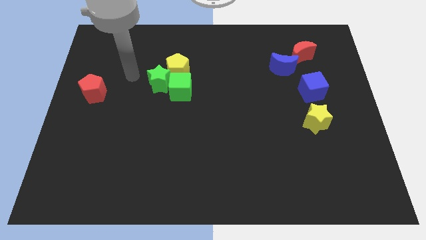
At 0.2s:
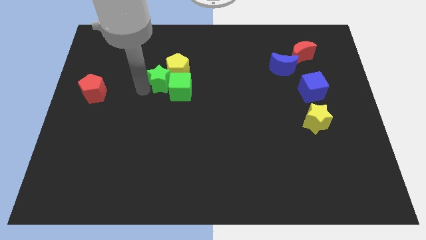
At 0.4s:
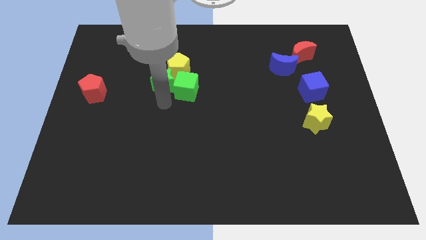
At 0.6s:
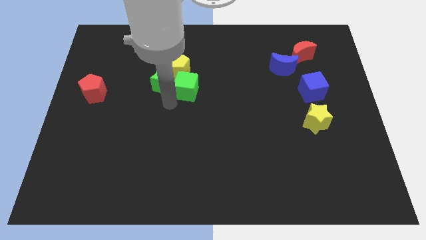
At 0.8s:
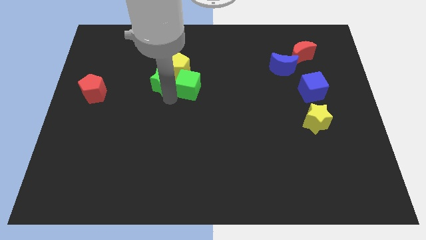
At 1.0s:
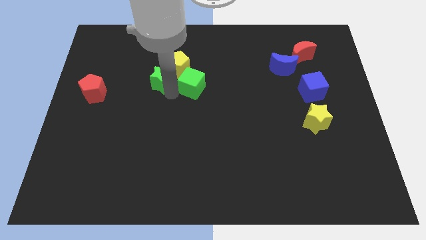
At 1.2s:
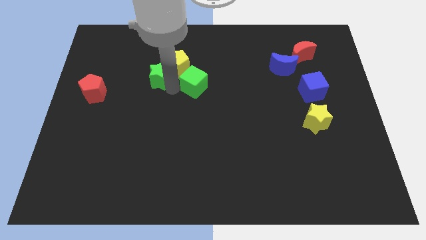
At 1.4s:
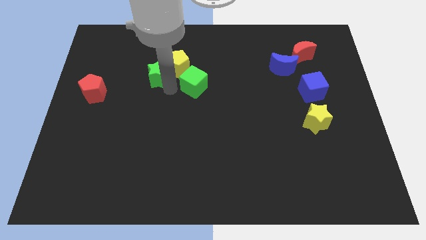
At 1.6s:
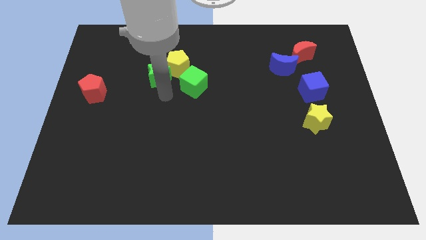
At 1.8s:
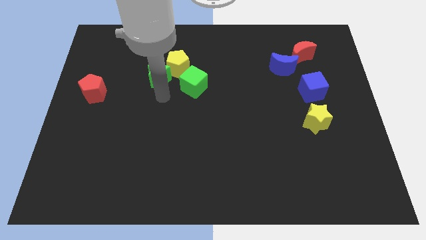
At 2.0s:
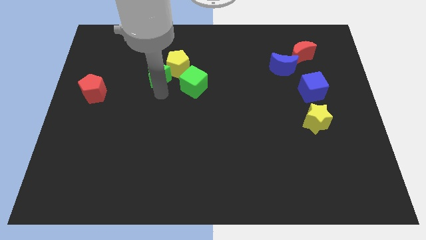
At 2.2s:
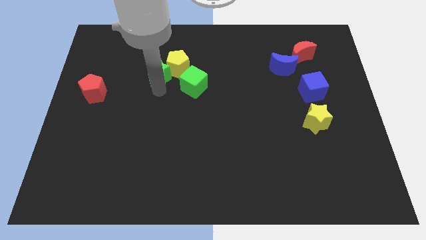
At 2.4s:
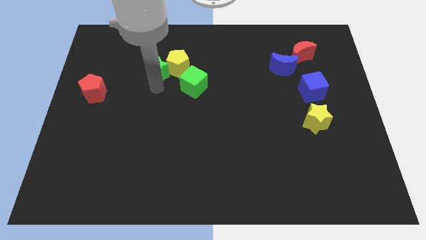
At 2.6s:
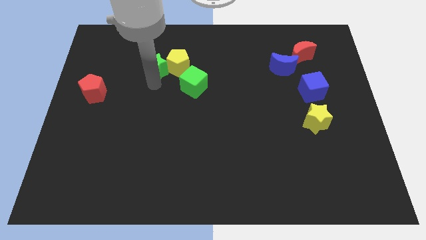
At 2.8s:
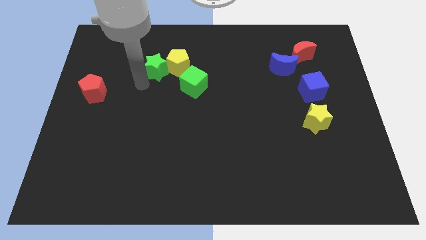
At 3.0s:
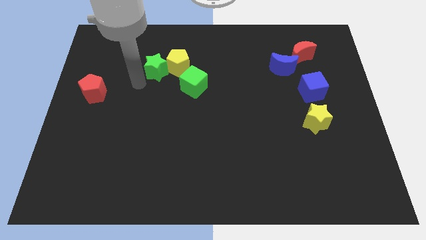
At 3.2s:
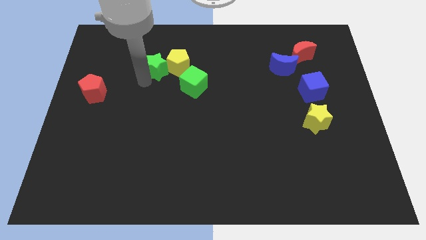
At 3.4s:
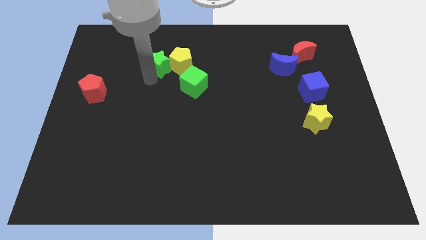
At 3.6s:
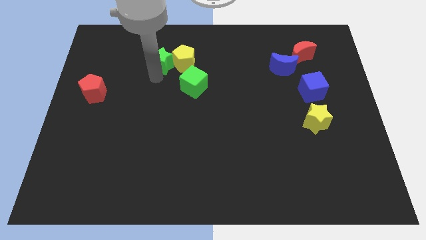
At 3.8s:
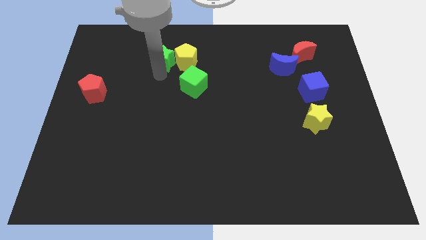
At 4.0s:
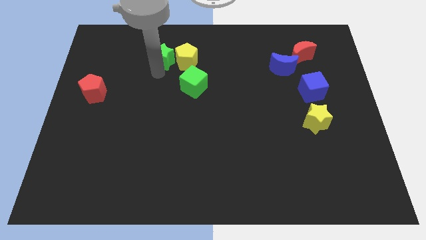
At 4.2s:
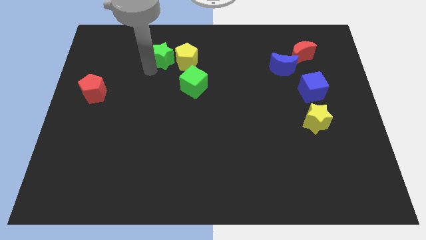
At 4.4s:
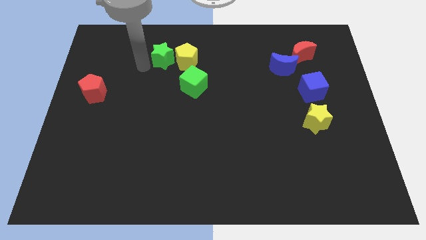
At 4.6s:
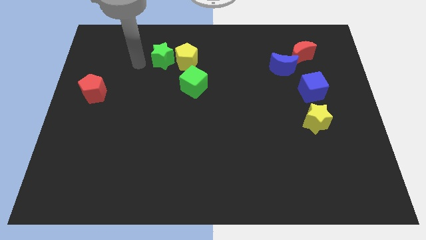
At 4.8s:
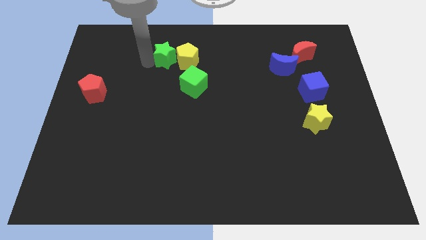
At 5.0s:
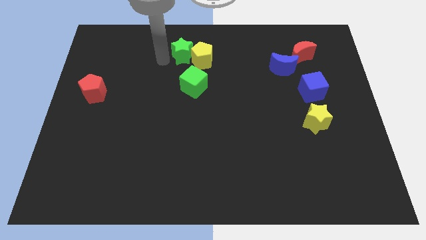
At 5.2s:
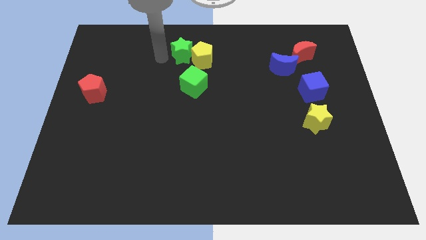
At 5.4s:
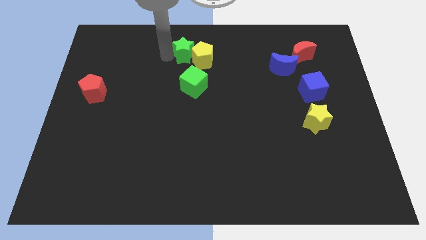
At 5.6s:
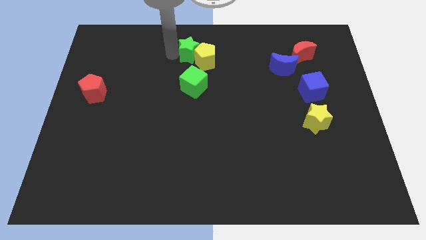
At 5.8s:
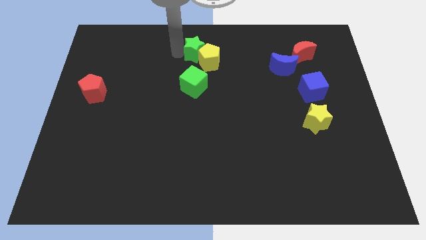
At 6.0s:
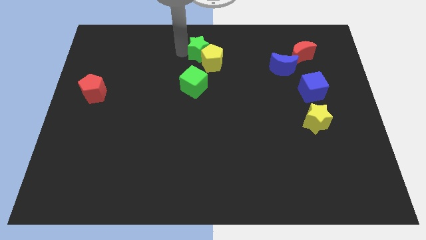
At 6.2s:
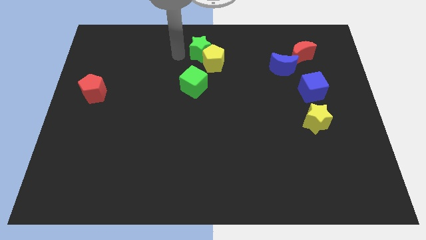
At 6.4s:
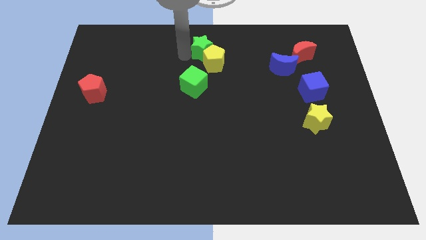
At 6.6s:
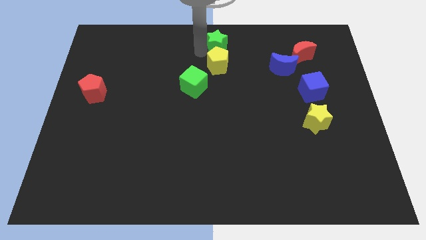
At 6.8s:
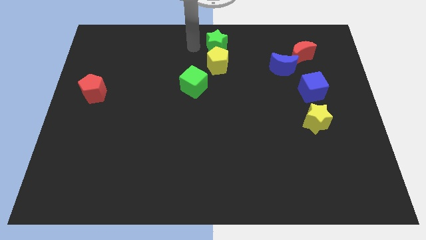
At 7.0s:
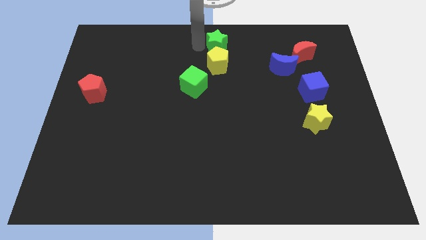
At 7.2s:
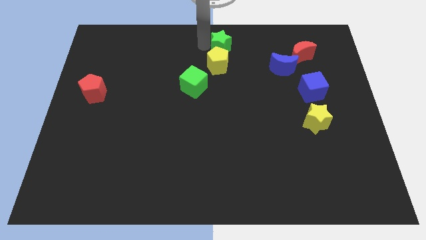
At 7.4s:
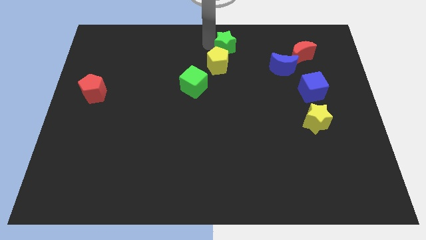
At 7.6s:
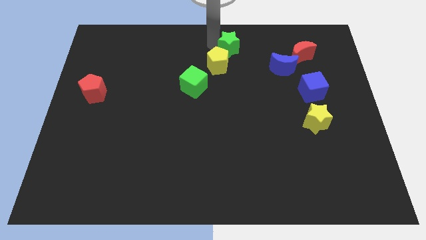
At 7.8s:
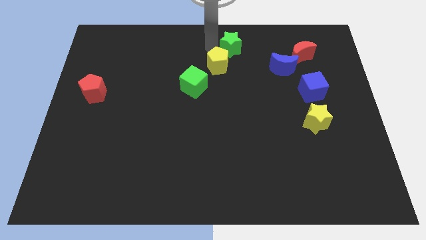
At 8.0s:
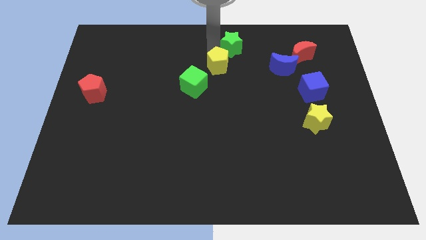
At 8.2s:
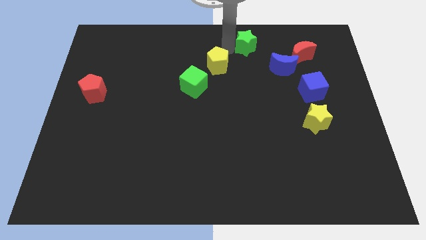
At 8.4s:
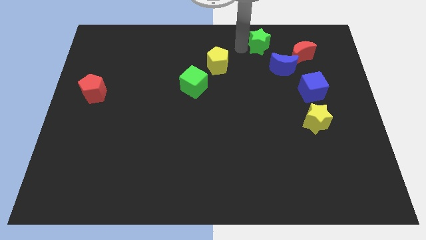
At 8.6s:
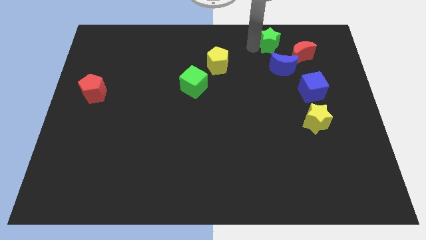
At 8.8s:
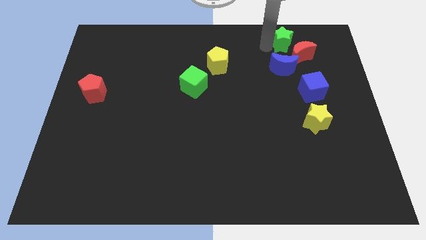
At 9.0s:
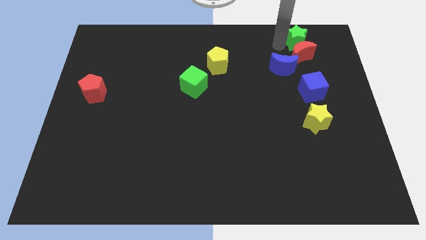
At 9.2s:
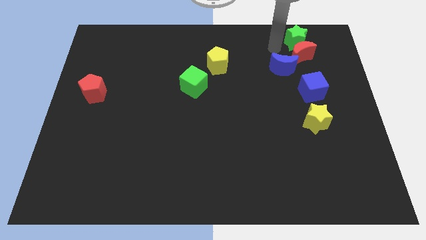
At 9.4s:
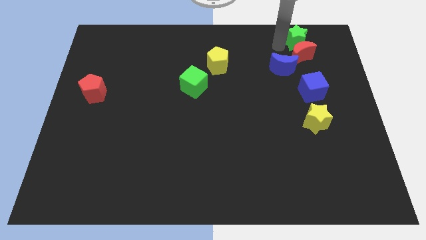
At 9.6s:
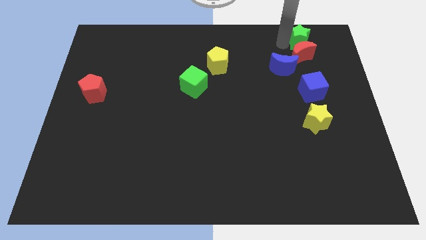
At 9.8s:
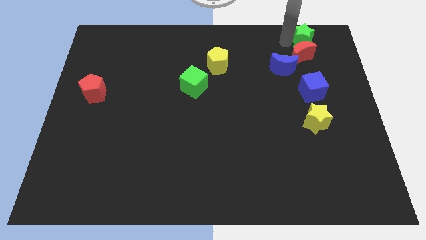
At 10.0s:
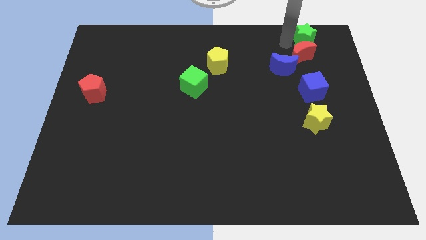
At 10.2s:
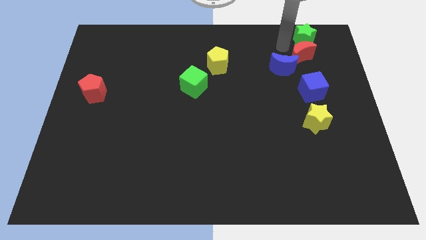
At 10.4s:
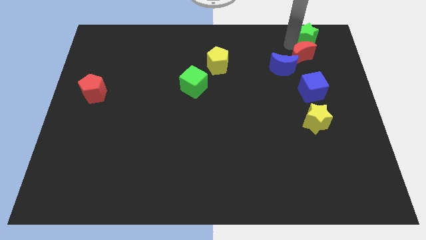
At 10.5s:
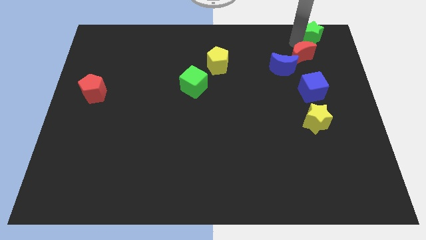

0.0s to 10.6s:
move the green star to the top right

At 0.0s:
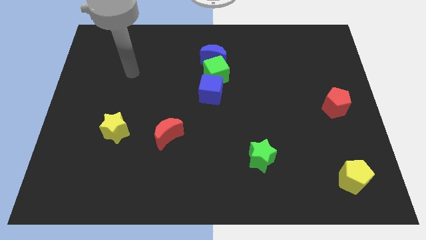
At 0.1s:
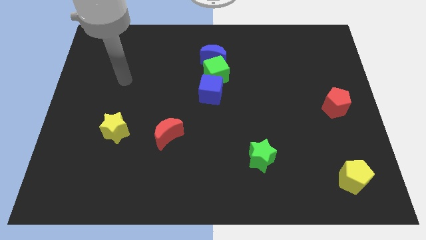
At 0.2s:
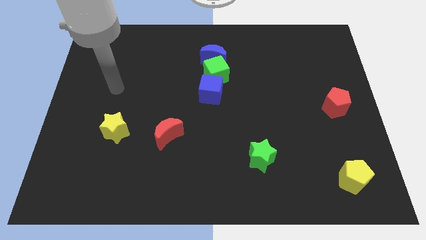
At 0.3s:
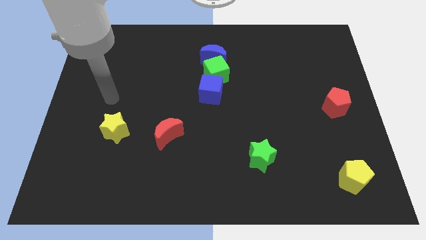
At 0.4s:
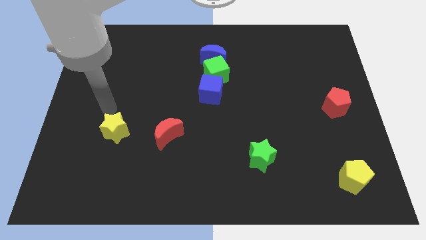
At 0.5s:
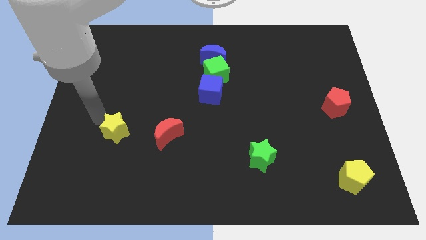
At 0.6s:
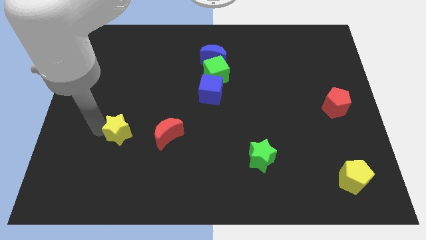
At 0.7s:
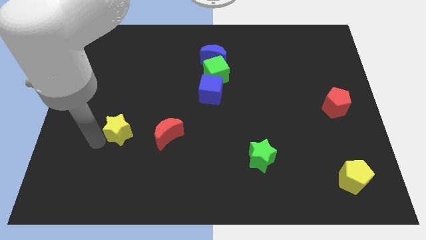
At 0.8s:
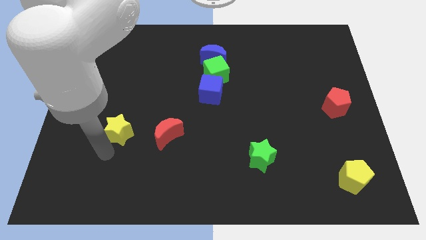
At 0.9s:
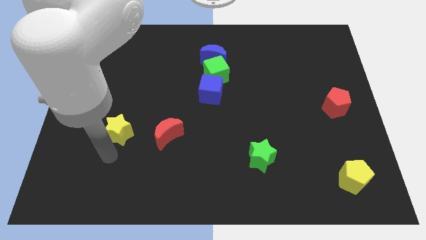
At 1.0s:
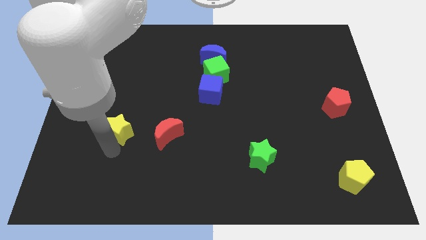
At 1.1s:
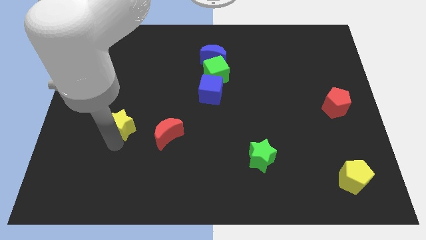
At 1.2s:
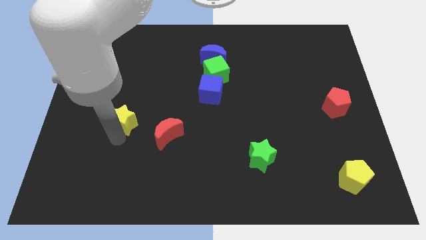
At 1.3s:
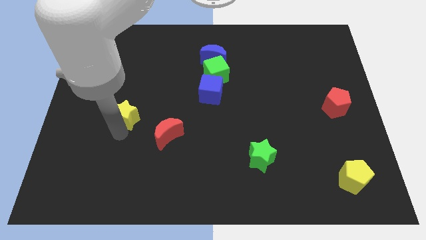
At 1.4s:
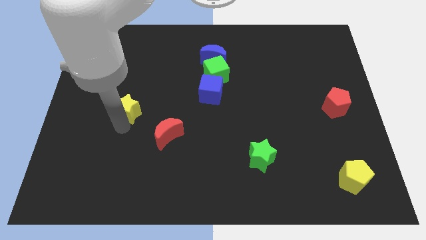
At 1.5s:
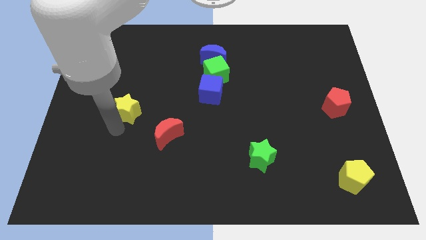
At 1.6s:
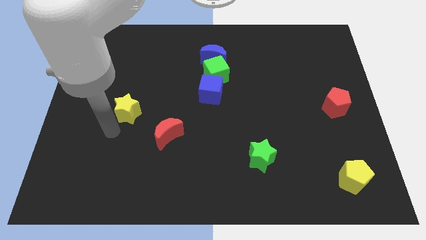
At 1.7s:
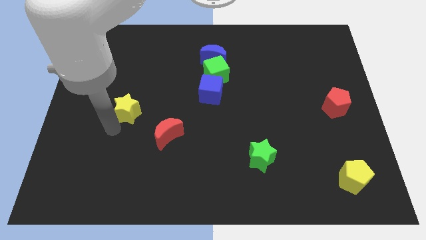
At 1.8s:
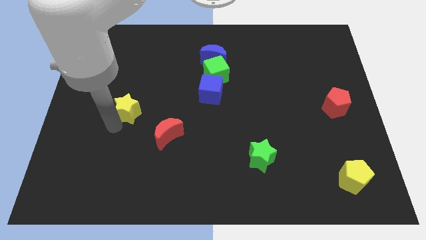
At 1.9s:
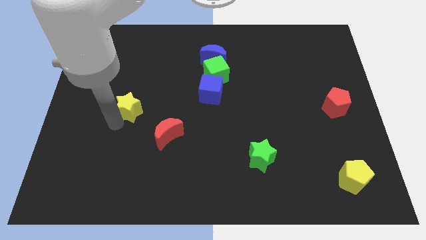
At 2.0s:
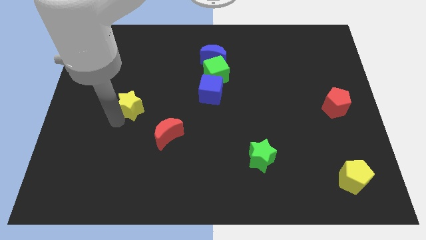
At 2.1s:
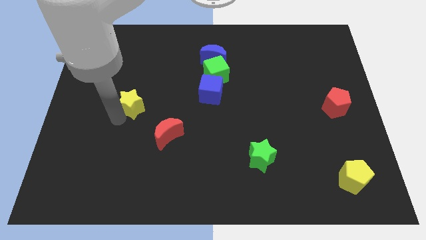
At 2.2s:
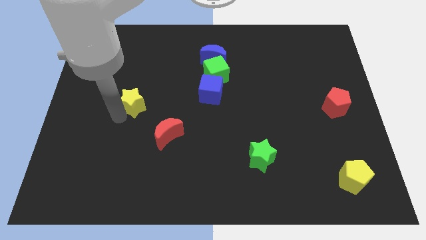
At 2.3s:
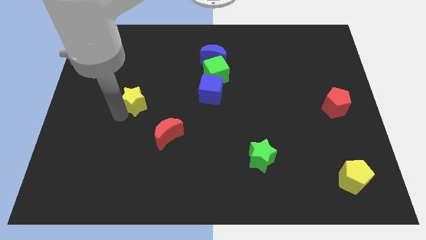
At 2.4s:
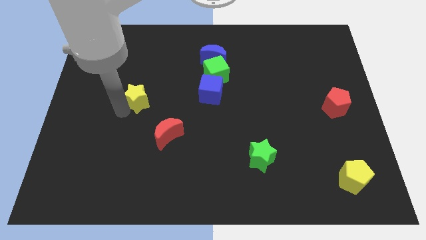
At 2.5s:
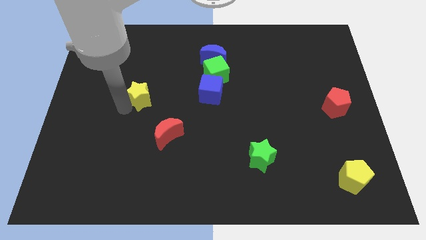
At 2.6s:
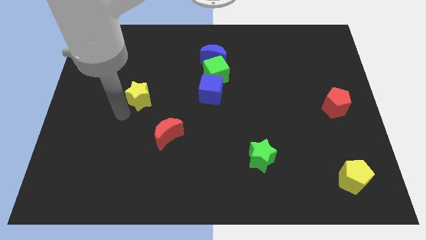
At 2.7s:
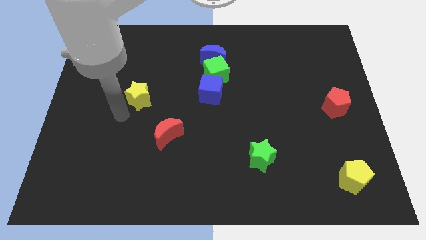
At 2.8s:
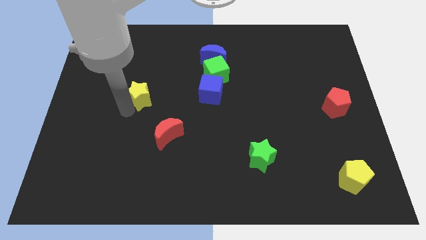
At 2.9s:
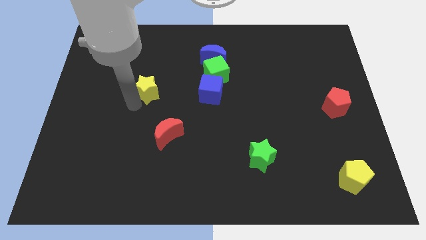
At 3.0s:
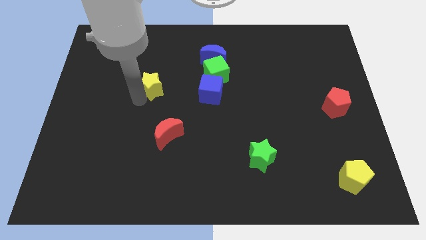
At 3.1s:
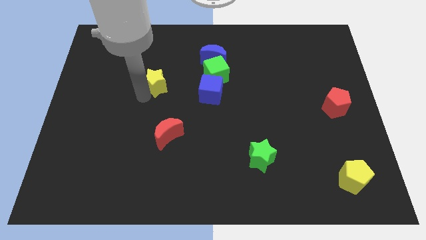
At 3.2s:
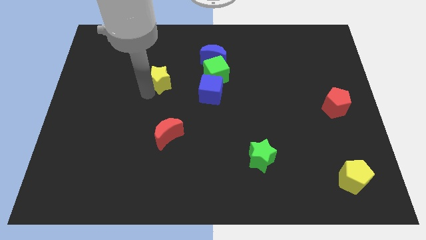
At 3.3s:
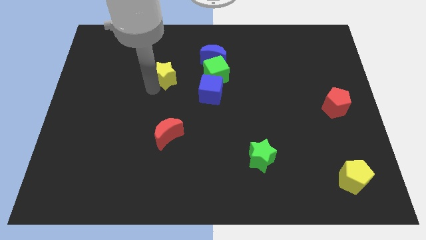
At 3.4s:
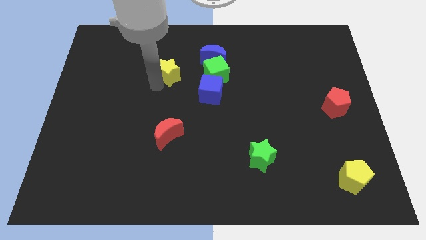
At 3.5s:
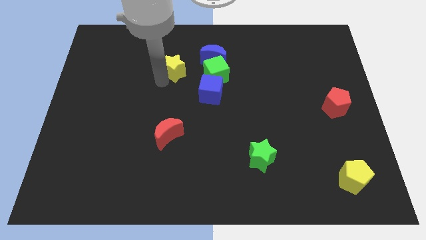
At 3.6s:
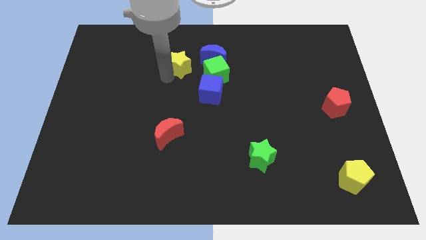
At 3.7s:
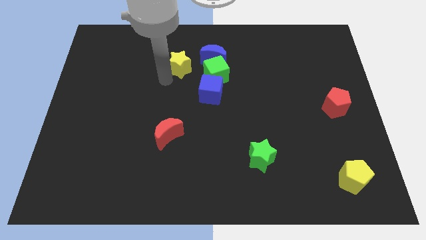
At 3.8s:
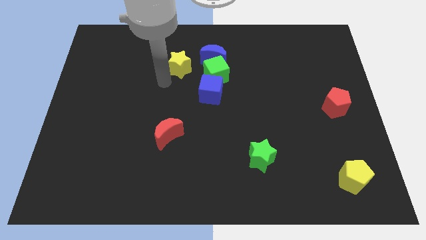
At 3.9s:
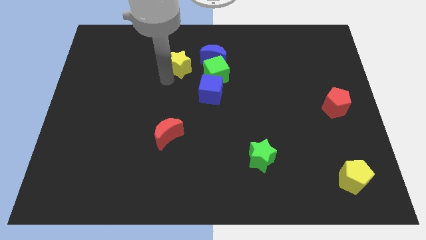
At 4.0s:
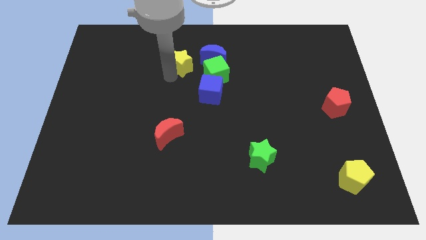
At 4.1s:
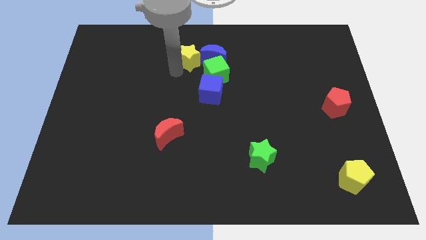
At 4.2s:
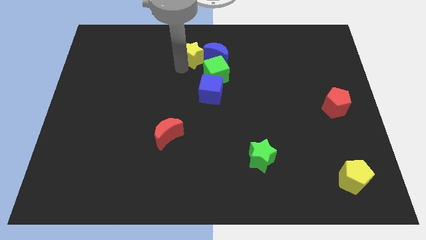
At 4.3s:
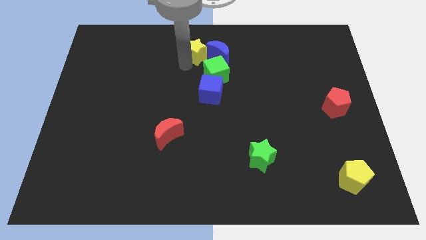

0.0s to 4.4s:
slide the yellow star to the towards your base
